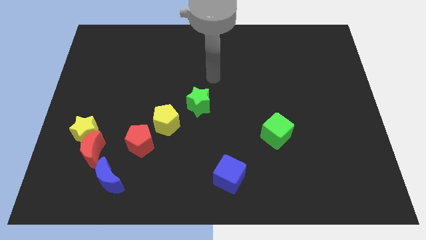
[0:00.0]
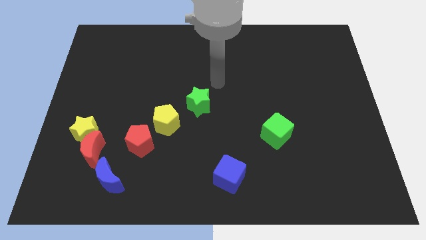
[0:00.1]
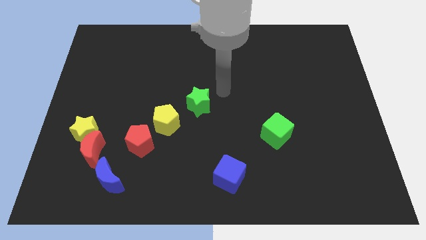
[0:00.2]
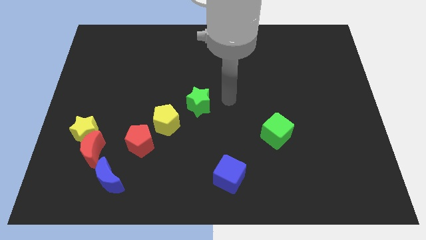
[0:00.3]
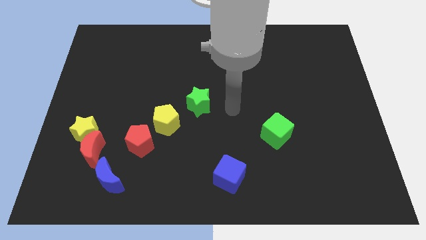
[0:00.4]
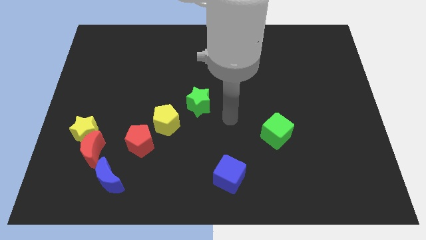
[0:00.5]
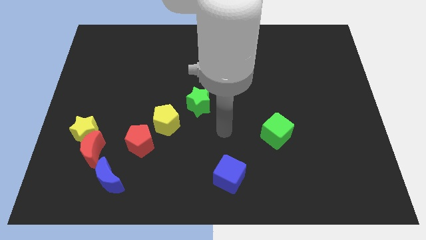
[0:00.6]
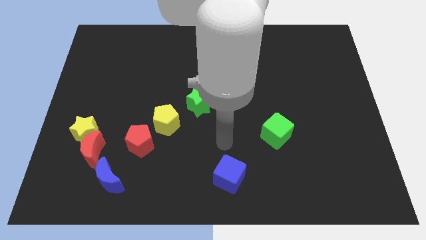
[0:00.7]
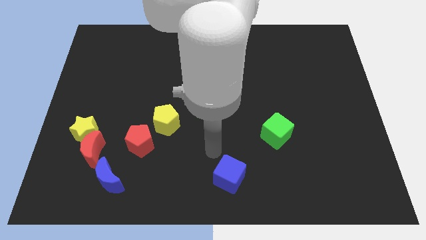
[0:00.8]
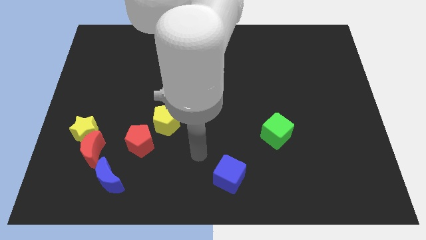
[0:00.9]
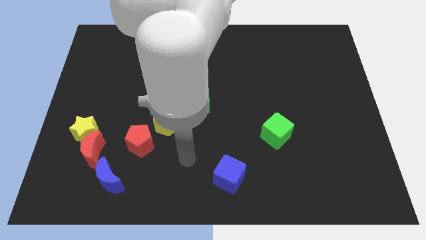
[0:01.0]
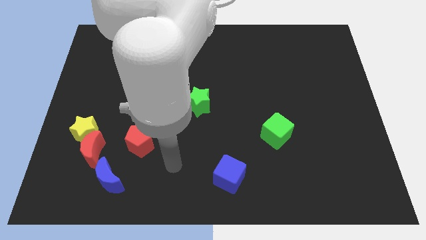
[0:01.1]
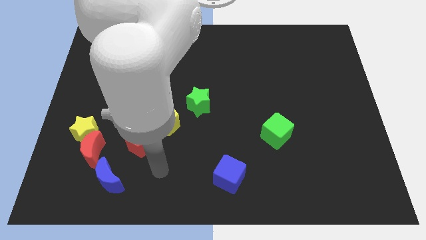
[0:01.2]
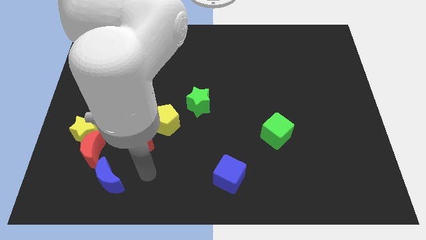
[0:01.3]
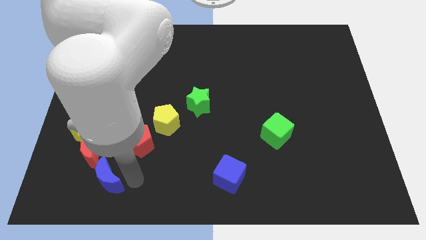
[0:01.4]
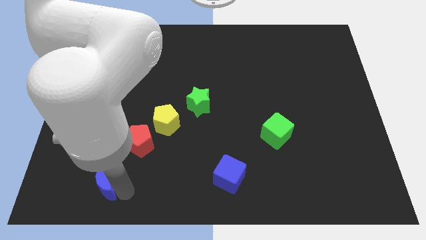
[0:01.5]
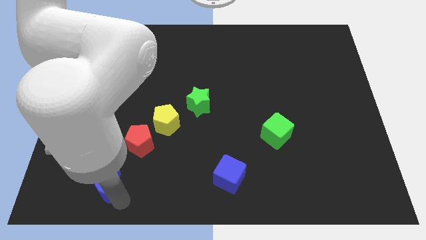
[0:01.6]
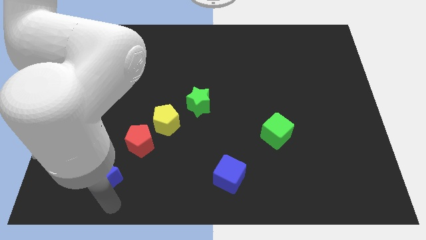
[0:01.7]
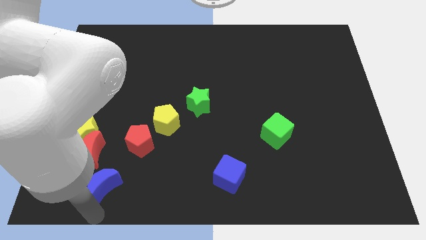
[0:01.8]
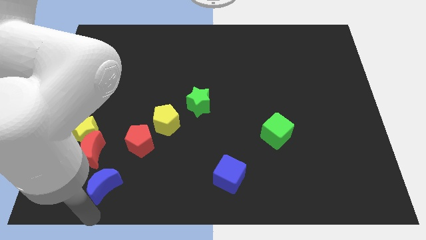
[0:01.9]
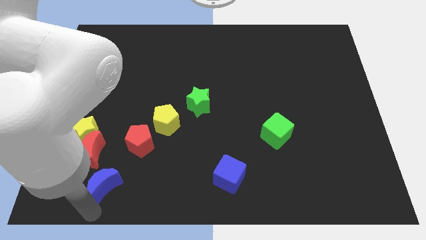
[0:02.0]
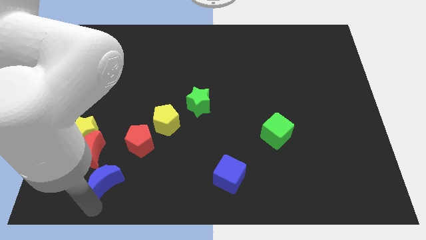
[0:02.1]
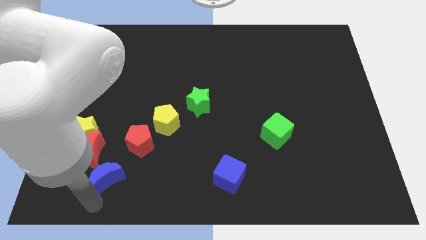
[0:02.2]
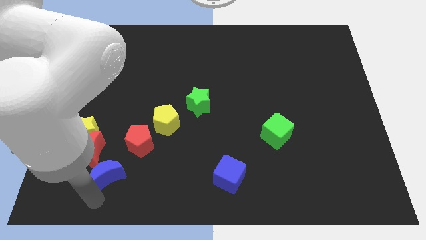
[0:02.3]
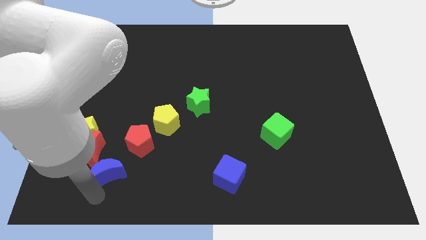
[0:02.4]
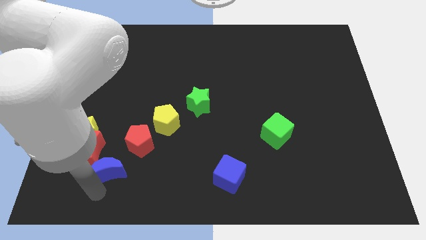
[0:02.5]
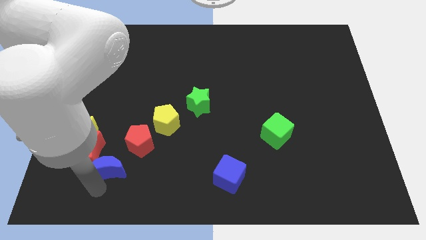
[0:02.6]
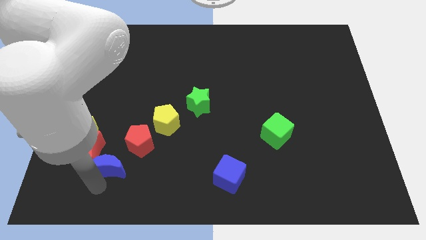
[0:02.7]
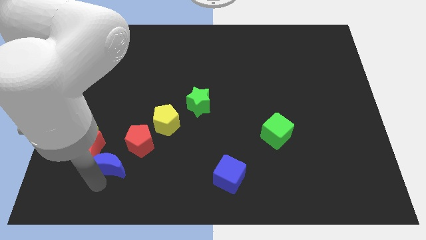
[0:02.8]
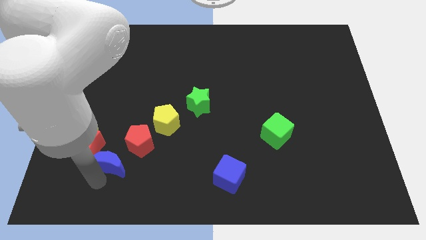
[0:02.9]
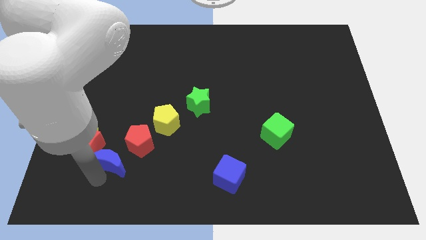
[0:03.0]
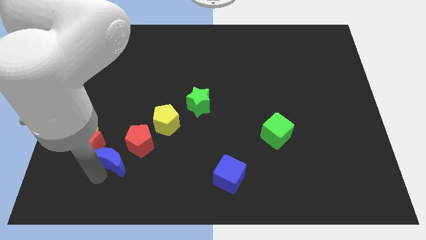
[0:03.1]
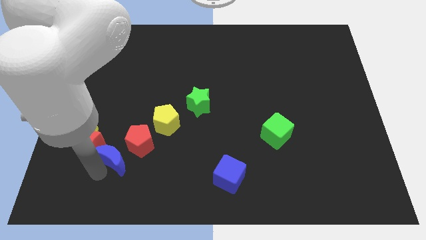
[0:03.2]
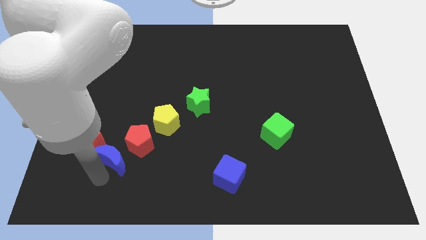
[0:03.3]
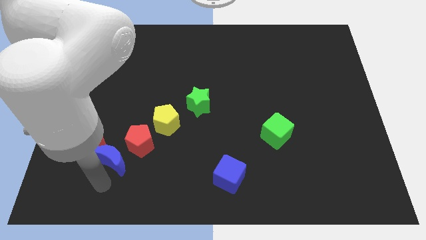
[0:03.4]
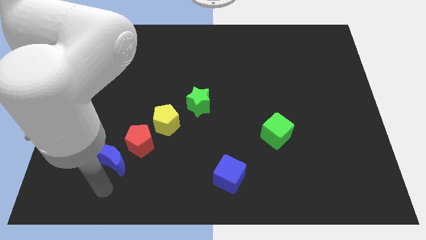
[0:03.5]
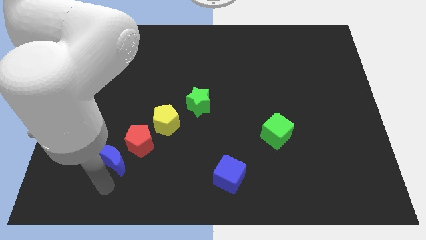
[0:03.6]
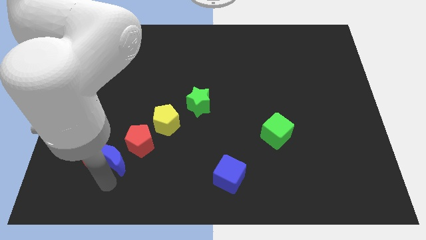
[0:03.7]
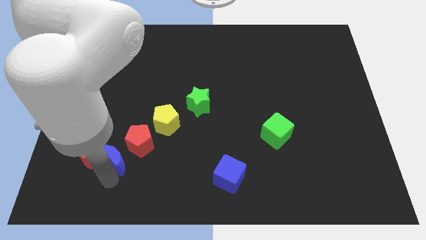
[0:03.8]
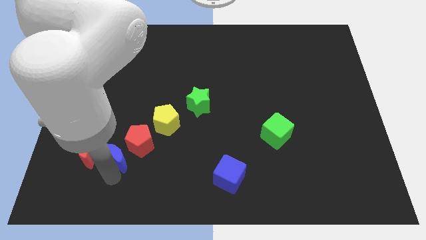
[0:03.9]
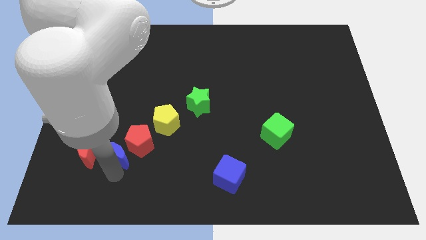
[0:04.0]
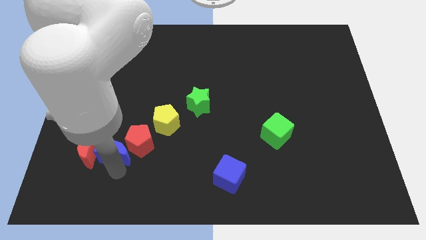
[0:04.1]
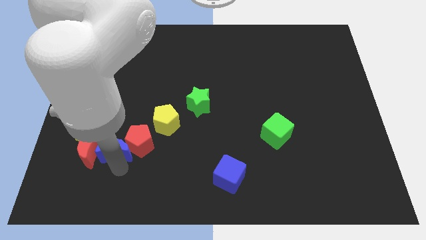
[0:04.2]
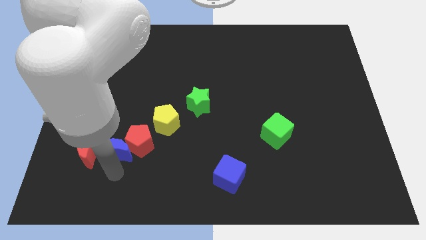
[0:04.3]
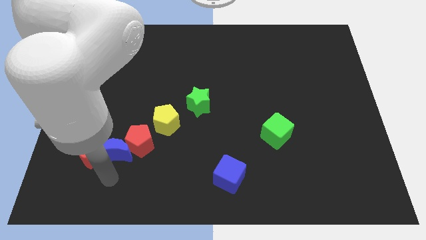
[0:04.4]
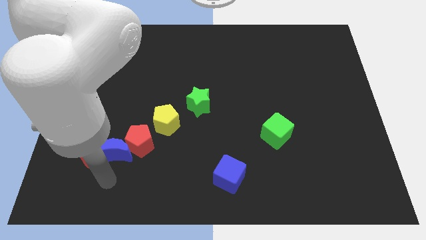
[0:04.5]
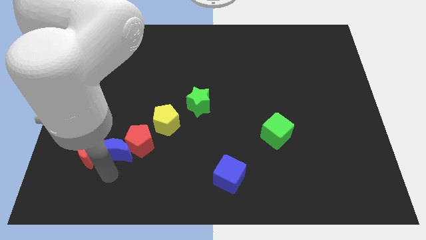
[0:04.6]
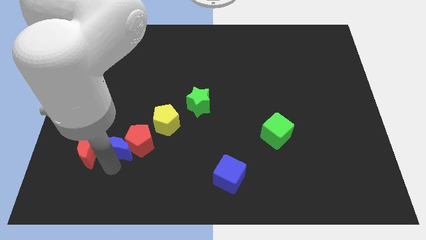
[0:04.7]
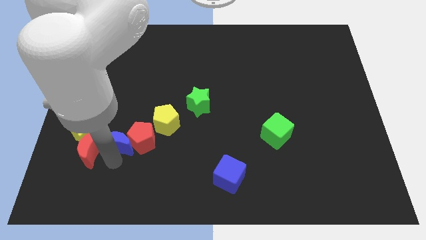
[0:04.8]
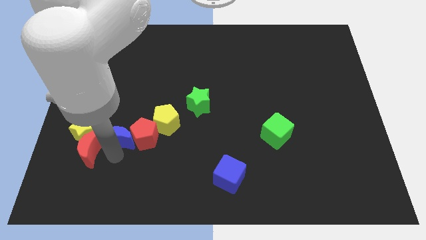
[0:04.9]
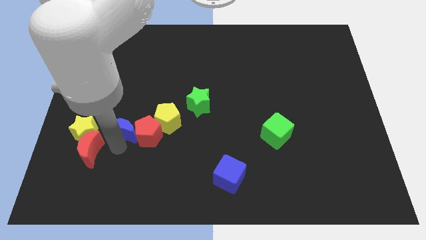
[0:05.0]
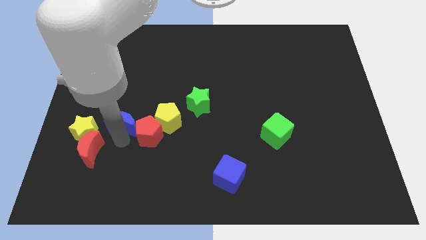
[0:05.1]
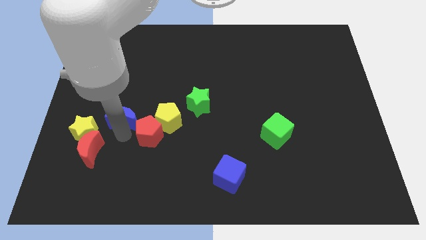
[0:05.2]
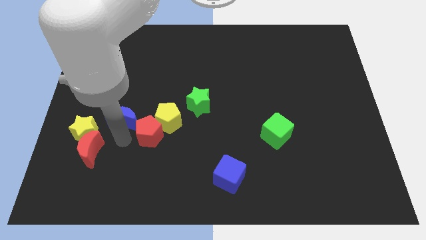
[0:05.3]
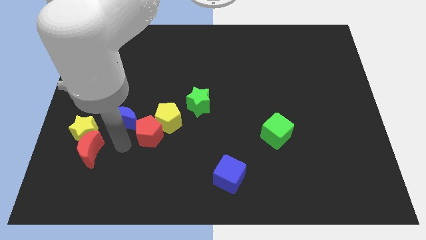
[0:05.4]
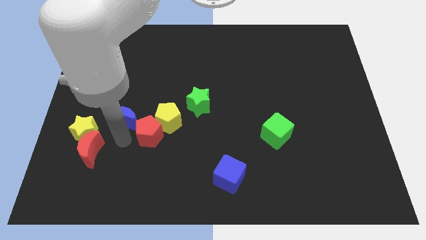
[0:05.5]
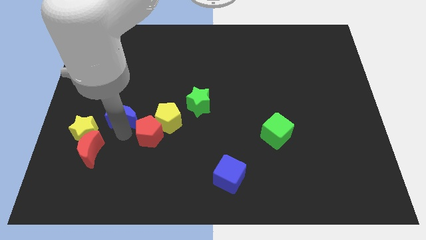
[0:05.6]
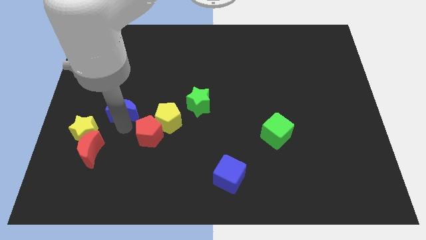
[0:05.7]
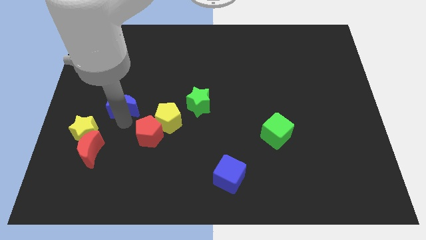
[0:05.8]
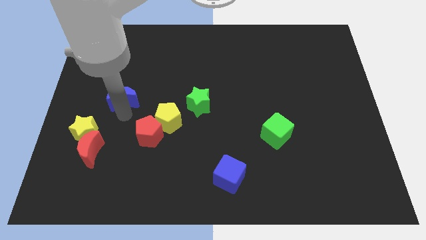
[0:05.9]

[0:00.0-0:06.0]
push the blue moon upwards

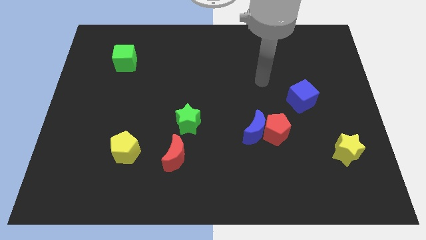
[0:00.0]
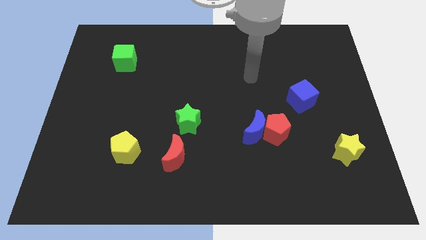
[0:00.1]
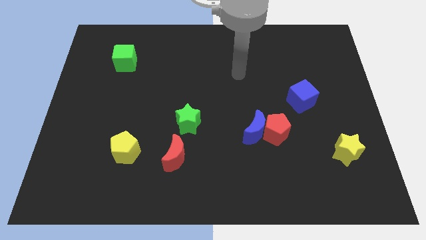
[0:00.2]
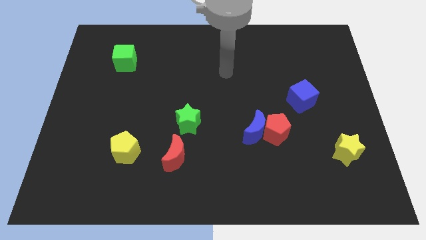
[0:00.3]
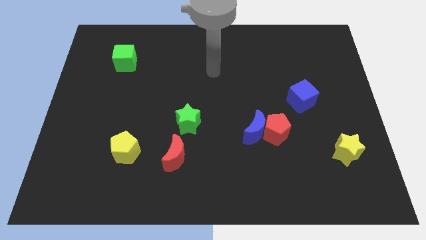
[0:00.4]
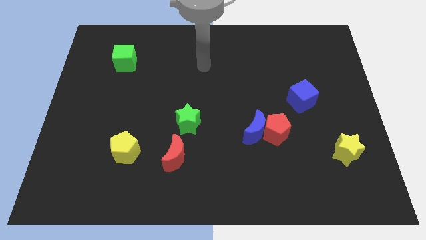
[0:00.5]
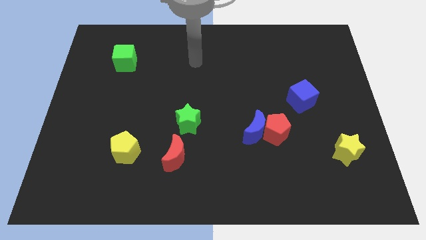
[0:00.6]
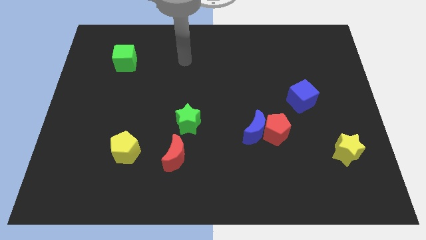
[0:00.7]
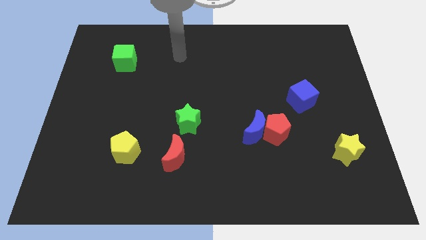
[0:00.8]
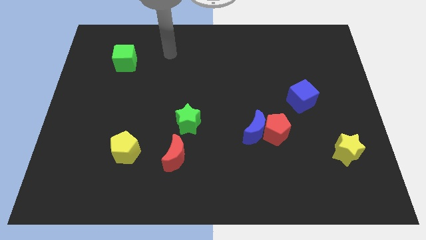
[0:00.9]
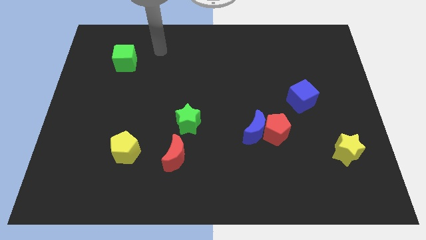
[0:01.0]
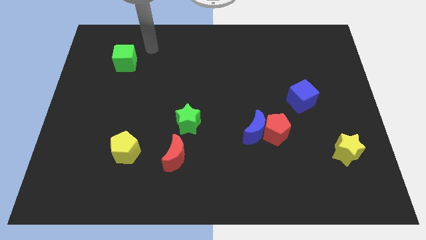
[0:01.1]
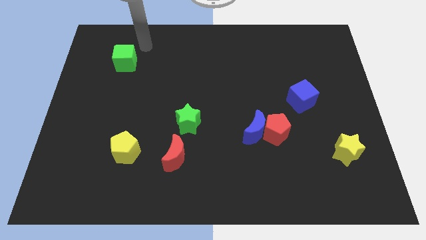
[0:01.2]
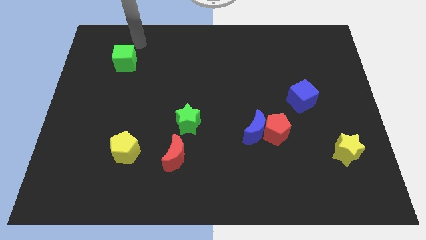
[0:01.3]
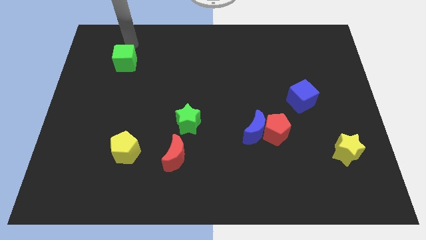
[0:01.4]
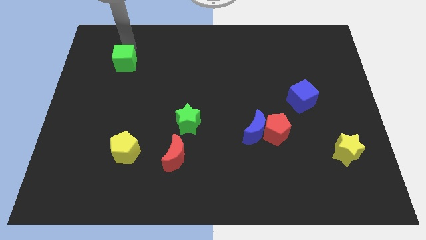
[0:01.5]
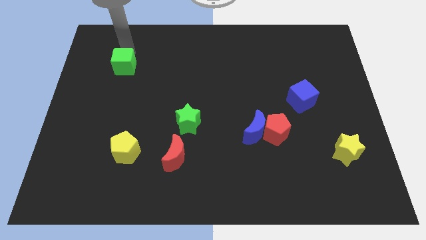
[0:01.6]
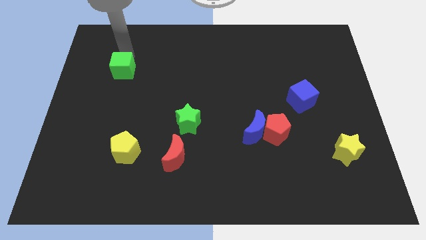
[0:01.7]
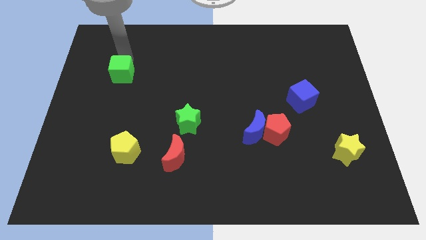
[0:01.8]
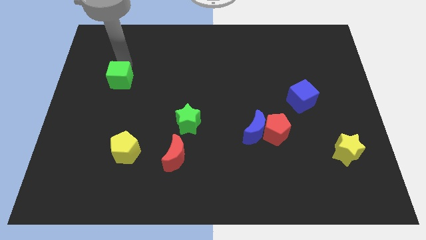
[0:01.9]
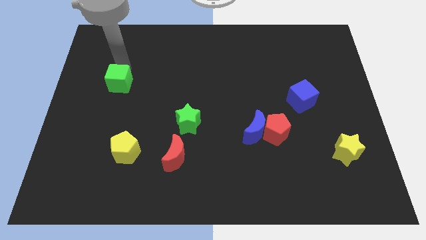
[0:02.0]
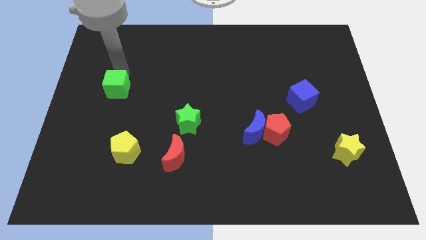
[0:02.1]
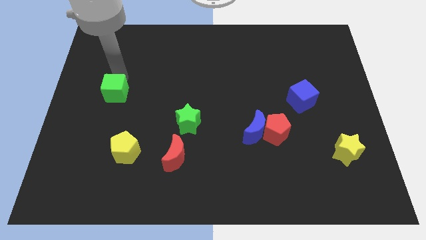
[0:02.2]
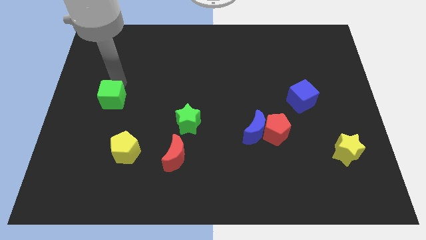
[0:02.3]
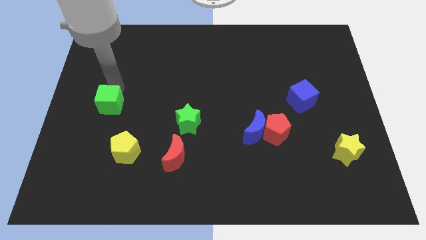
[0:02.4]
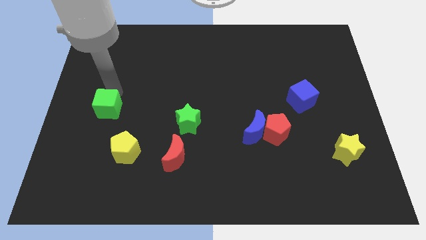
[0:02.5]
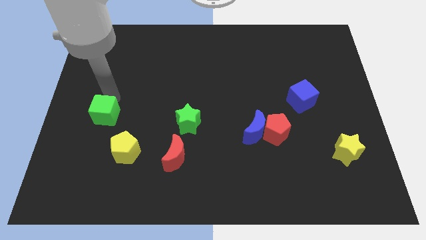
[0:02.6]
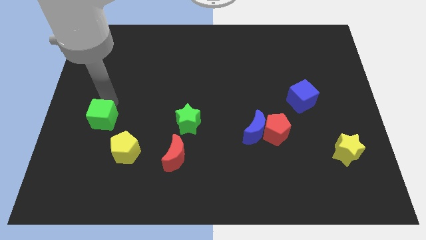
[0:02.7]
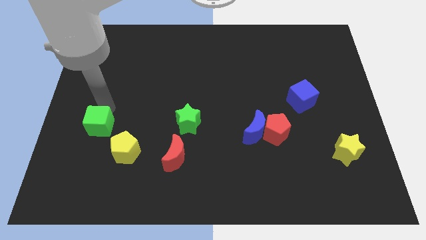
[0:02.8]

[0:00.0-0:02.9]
slide the green cube downwards
